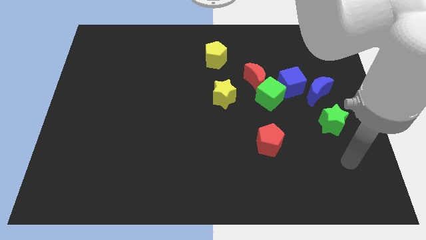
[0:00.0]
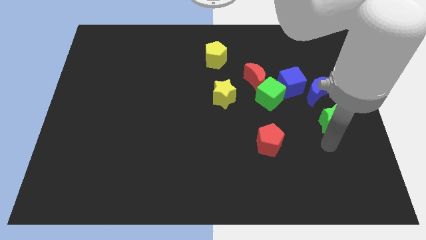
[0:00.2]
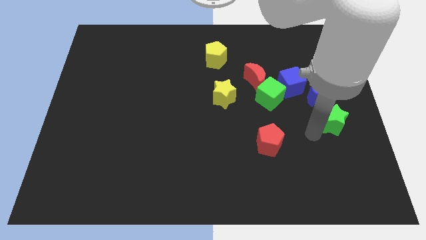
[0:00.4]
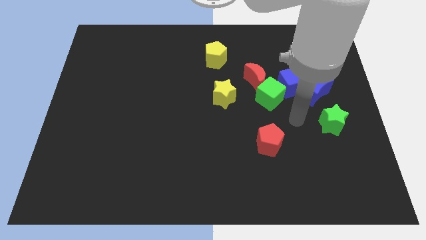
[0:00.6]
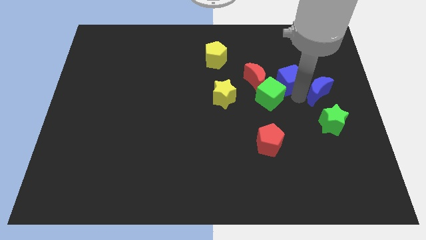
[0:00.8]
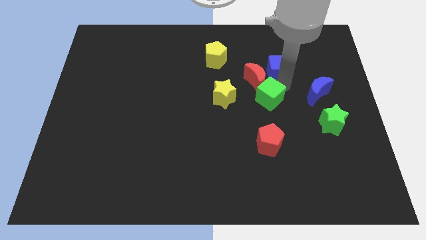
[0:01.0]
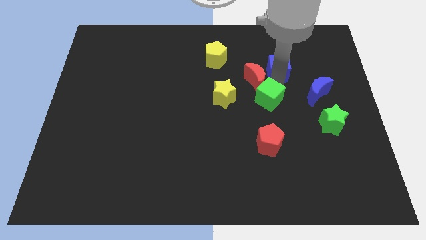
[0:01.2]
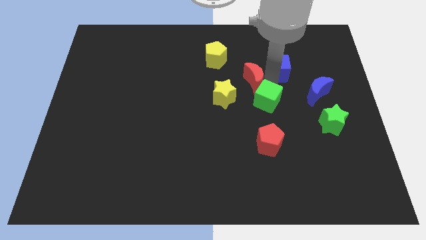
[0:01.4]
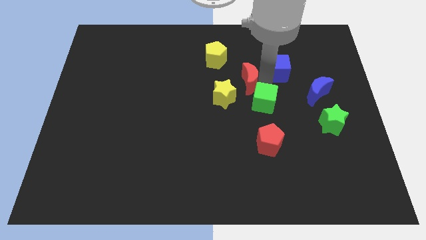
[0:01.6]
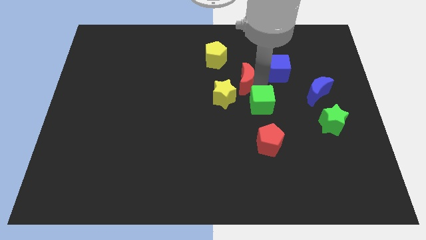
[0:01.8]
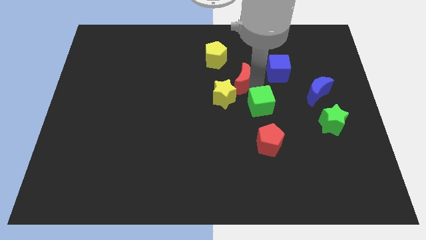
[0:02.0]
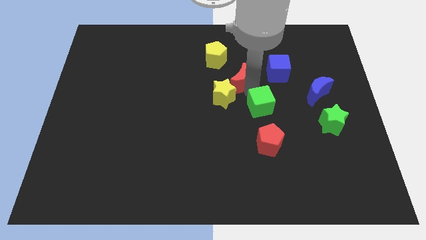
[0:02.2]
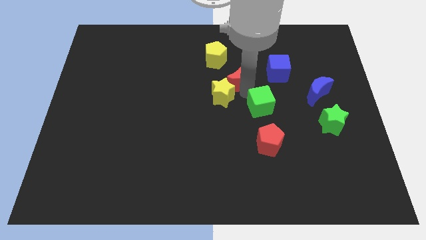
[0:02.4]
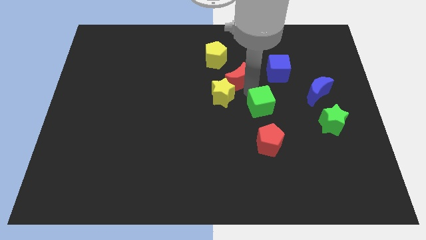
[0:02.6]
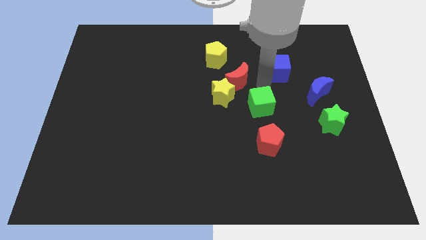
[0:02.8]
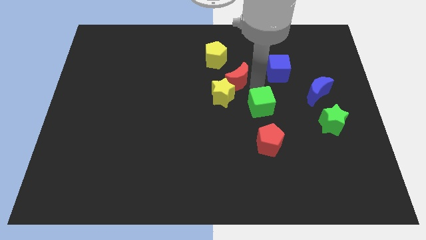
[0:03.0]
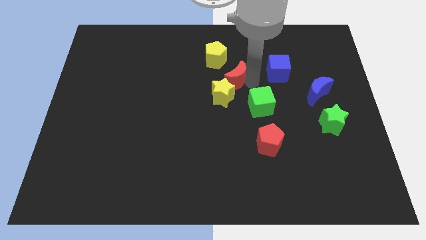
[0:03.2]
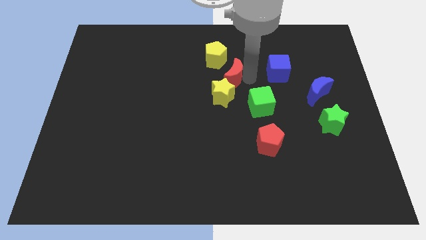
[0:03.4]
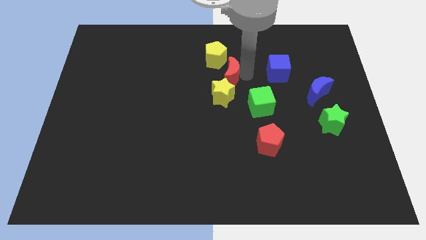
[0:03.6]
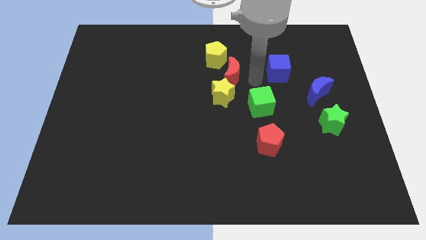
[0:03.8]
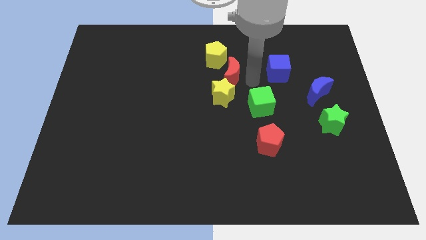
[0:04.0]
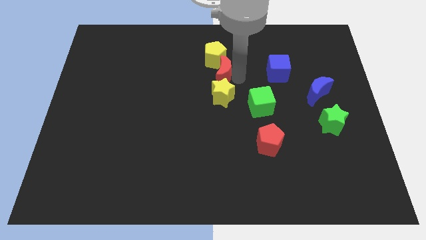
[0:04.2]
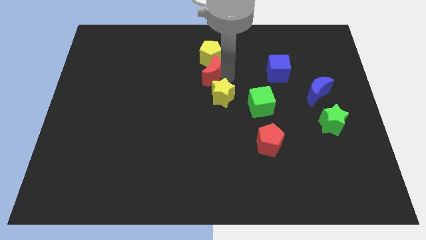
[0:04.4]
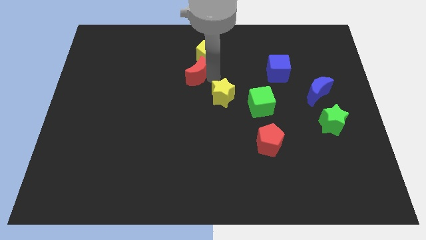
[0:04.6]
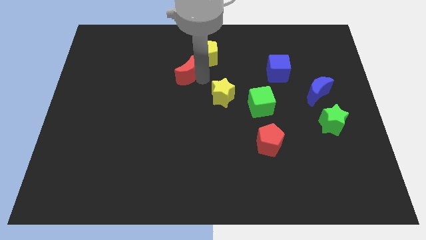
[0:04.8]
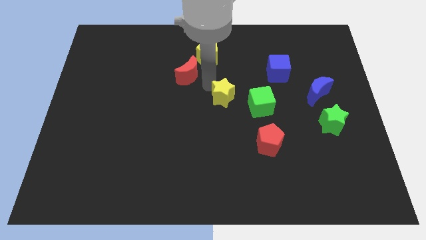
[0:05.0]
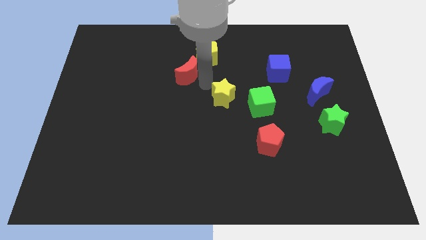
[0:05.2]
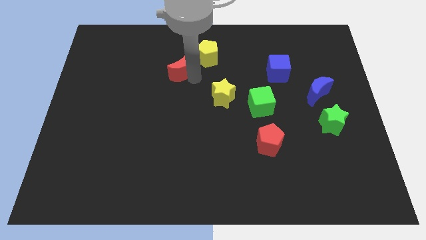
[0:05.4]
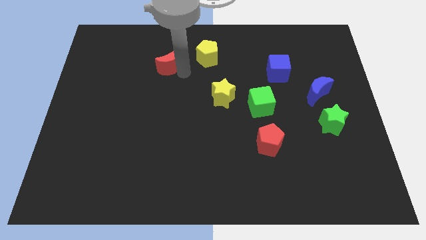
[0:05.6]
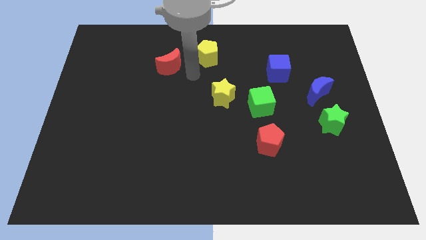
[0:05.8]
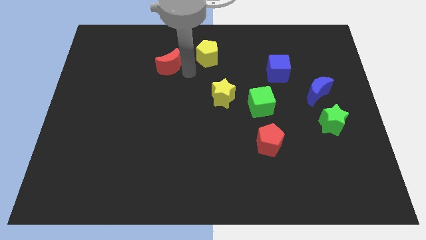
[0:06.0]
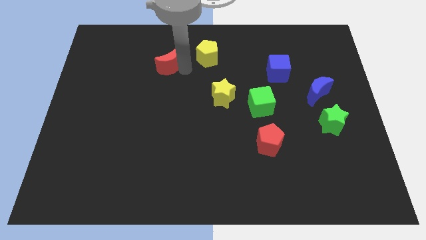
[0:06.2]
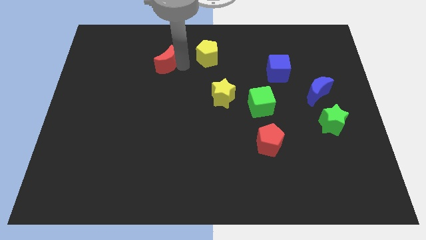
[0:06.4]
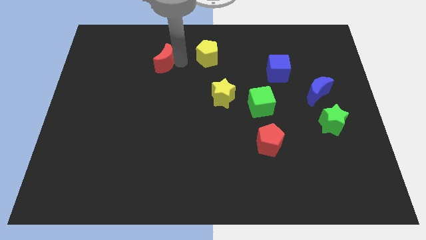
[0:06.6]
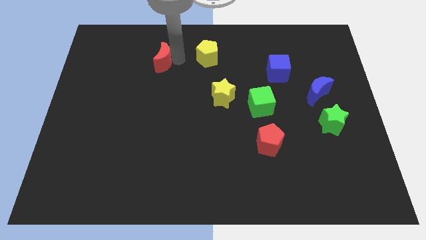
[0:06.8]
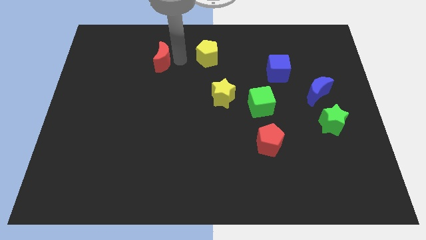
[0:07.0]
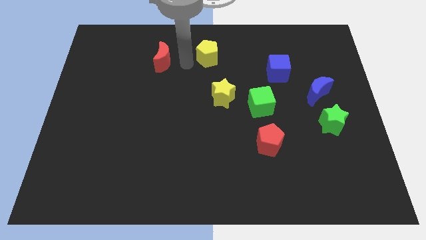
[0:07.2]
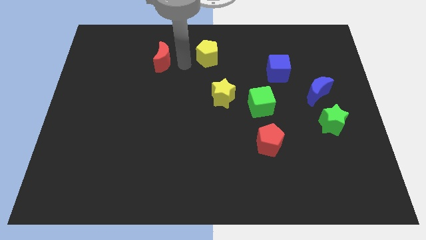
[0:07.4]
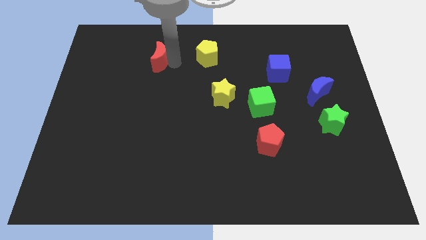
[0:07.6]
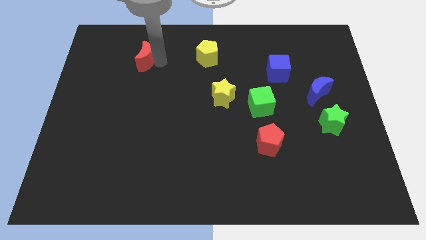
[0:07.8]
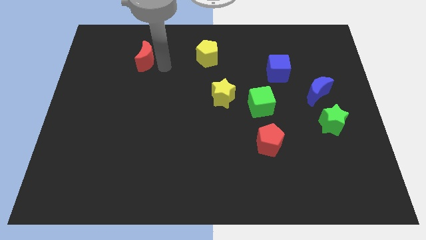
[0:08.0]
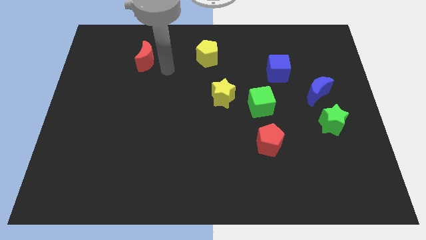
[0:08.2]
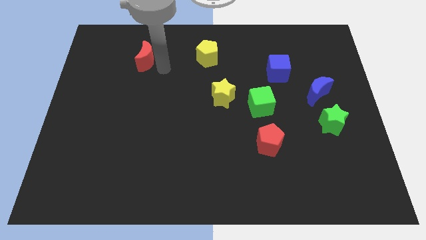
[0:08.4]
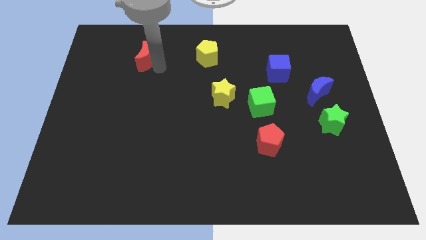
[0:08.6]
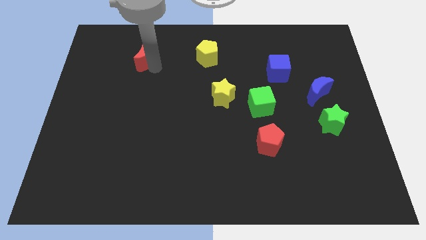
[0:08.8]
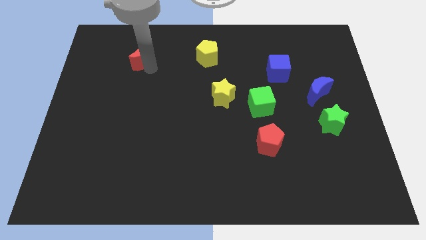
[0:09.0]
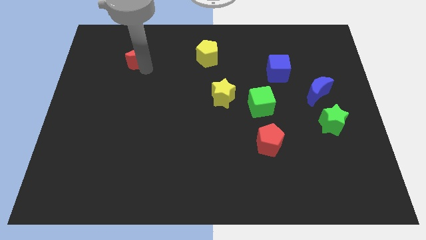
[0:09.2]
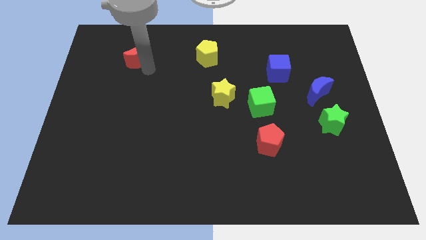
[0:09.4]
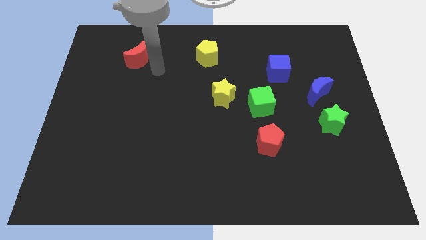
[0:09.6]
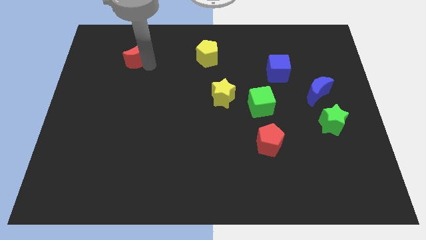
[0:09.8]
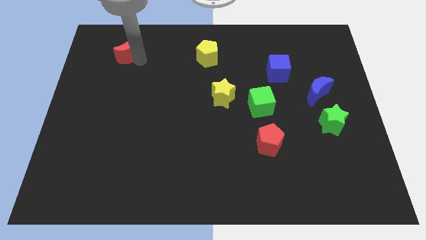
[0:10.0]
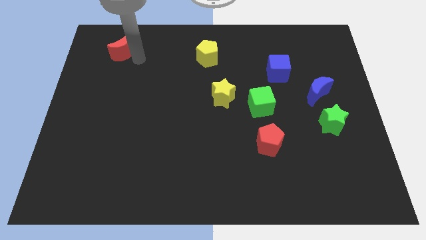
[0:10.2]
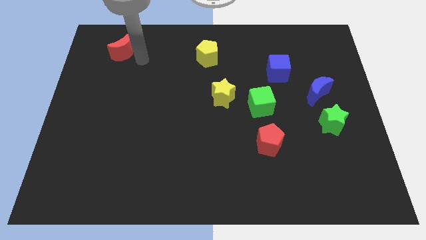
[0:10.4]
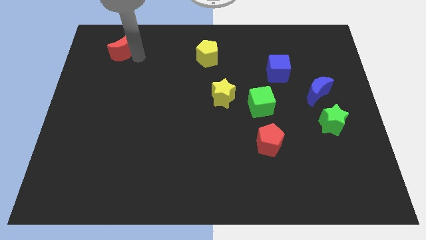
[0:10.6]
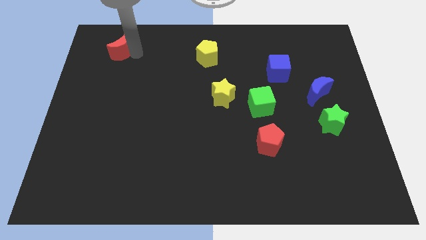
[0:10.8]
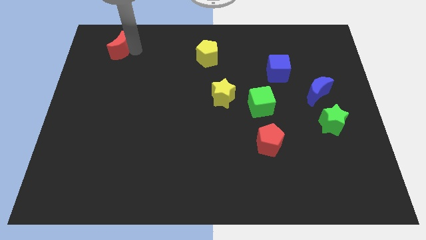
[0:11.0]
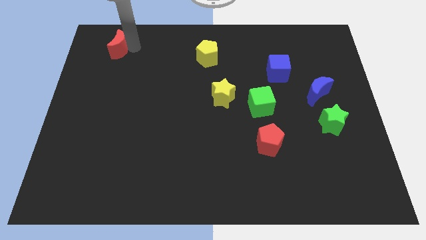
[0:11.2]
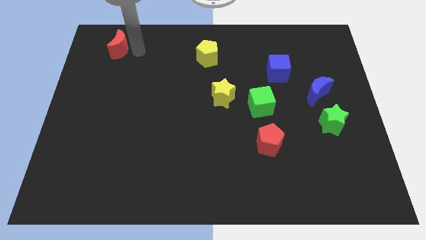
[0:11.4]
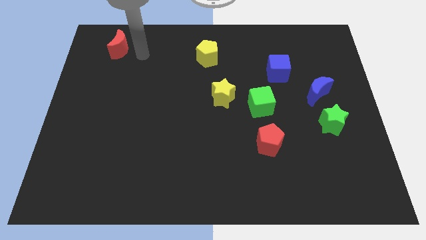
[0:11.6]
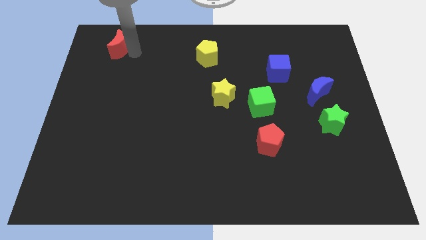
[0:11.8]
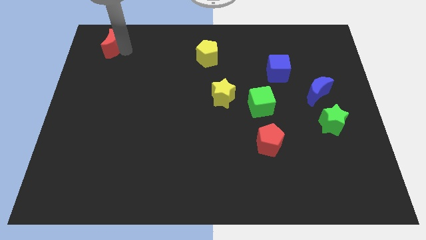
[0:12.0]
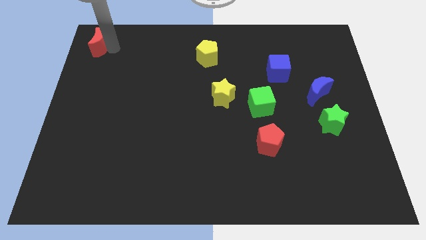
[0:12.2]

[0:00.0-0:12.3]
move the red moon to the top left corner

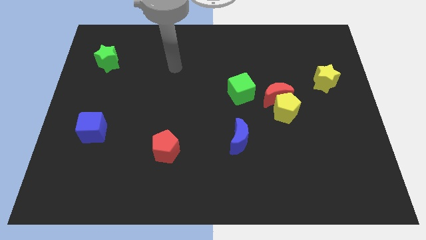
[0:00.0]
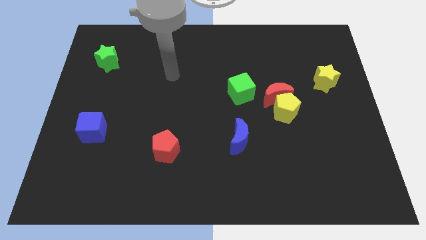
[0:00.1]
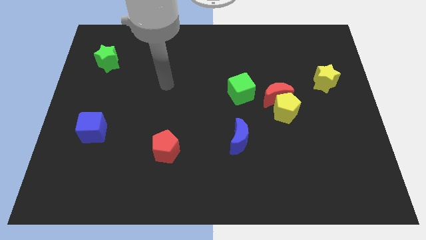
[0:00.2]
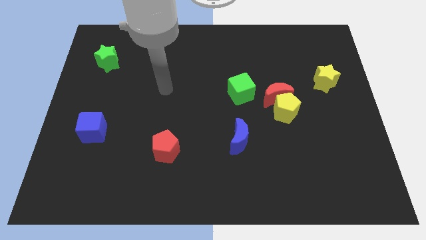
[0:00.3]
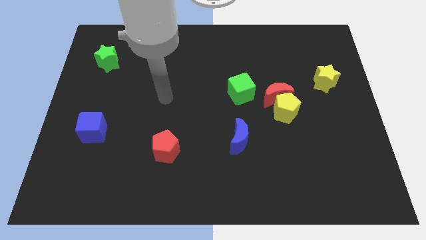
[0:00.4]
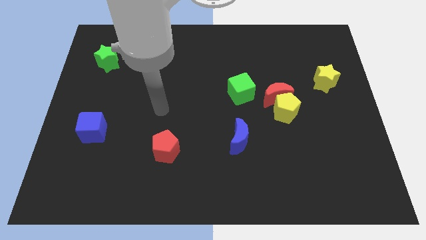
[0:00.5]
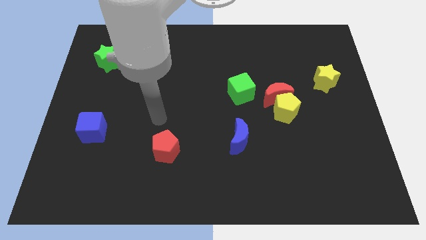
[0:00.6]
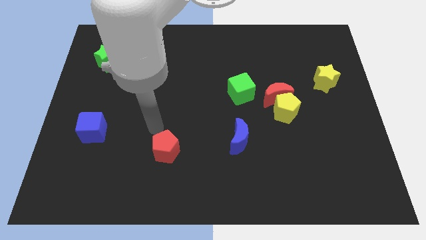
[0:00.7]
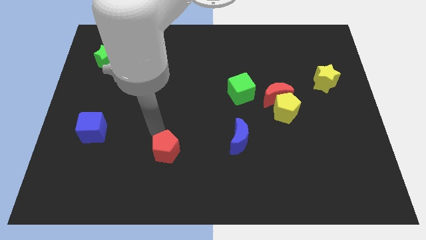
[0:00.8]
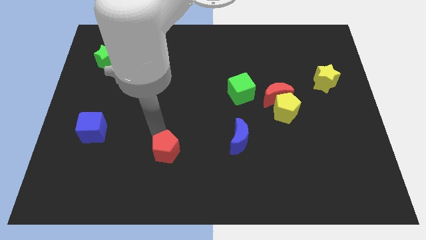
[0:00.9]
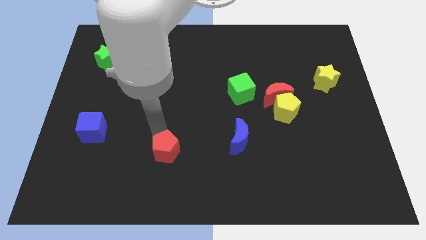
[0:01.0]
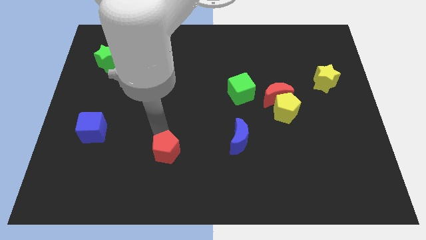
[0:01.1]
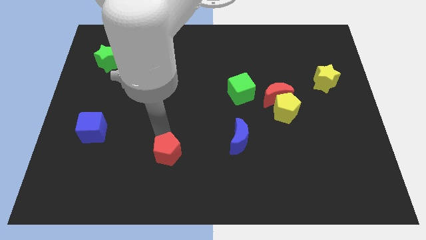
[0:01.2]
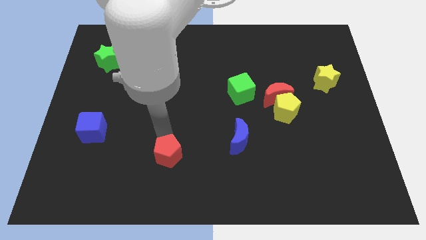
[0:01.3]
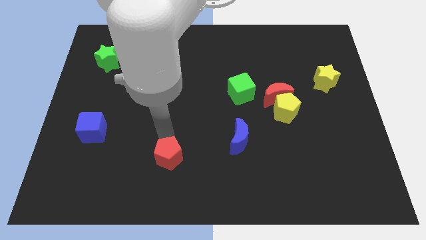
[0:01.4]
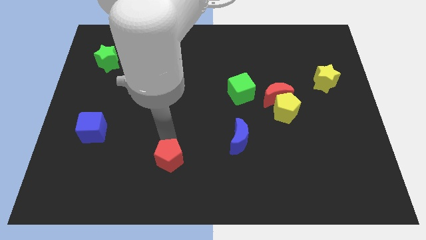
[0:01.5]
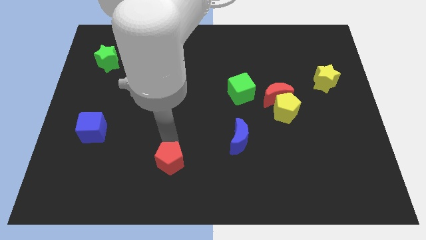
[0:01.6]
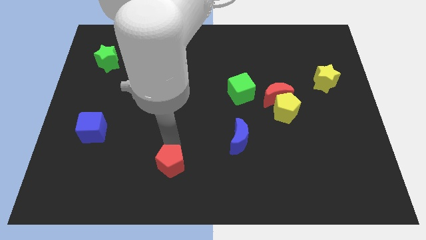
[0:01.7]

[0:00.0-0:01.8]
slide the red pentagon to the bottom
